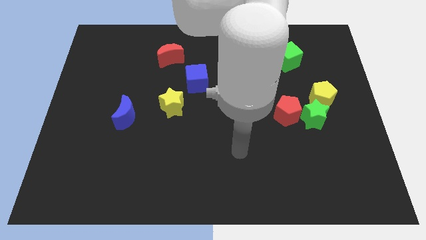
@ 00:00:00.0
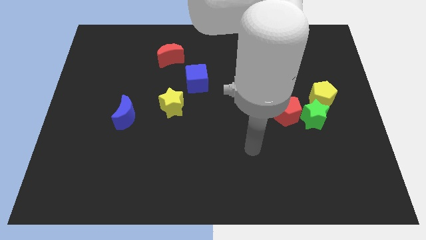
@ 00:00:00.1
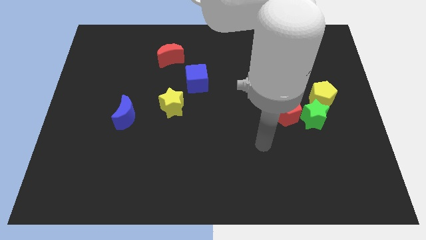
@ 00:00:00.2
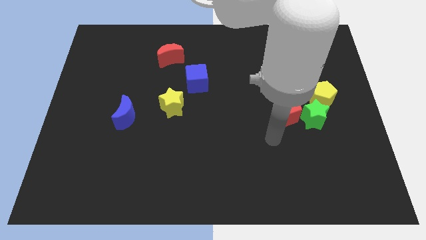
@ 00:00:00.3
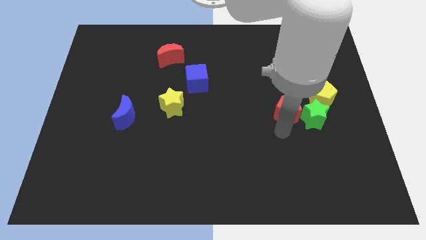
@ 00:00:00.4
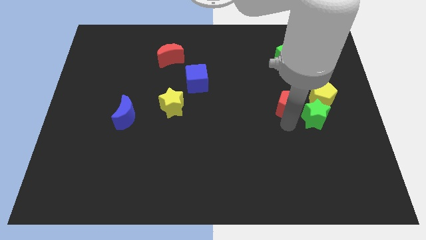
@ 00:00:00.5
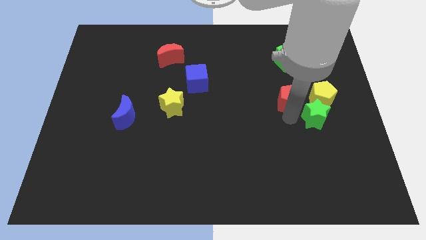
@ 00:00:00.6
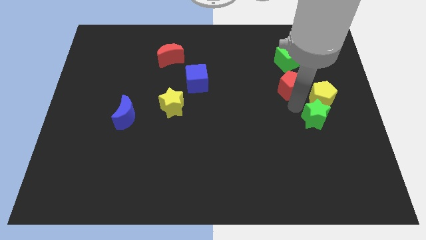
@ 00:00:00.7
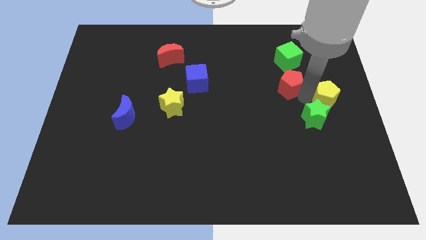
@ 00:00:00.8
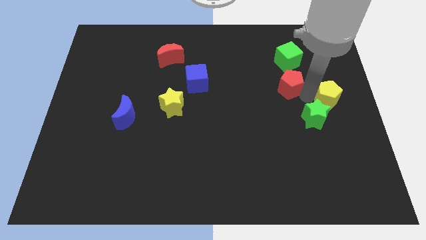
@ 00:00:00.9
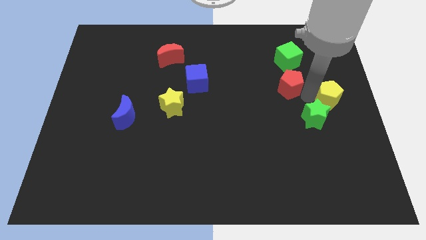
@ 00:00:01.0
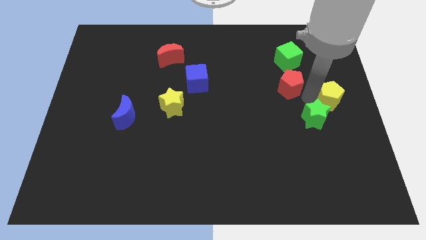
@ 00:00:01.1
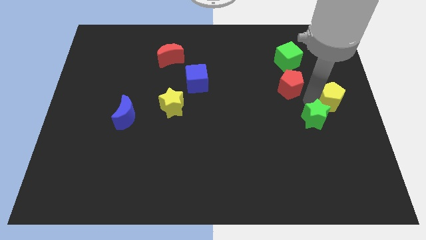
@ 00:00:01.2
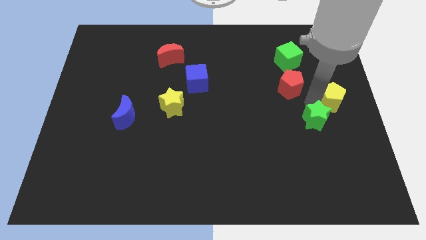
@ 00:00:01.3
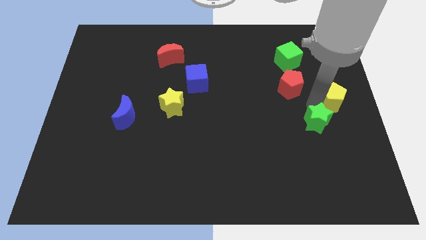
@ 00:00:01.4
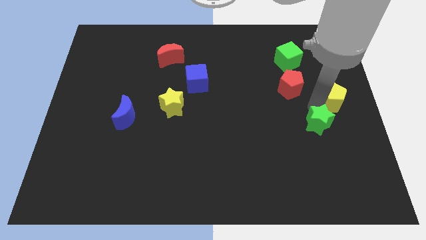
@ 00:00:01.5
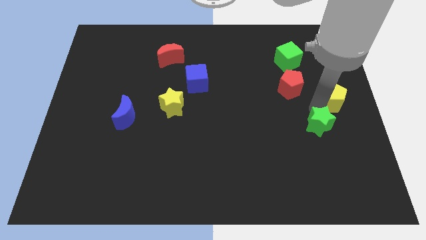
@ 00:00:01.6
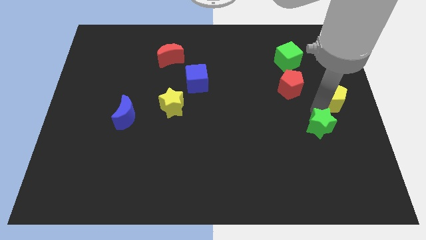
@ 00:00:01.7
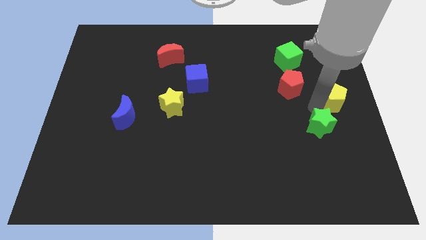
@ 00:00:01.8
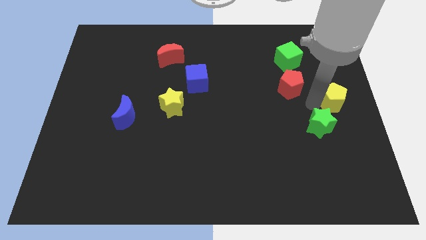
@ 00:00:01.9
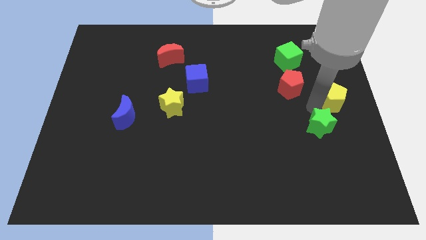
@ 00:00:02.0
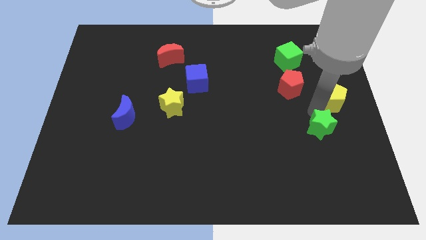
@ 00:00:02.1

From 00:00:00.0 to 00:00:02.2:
separate the green star from the red pentagon and yellow pentagon

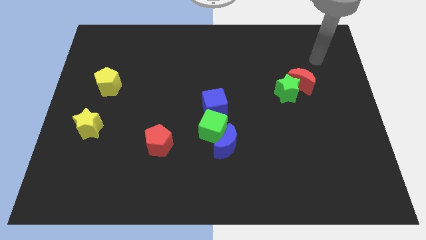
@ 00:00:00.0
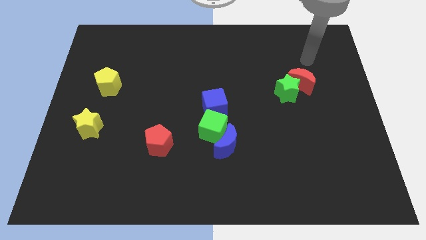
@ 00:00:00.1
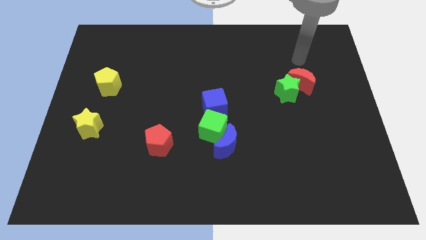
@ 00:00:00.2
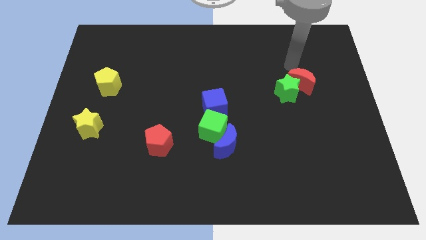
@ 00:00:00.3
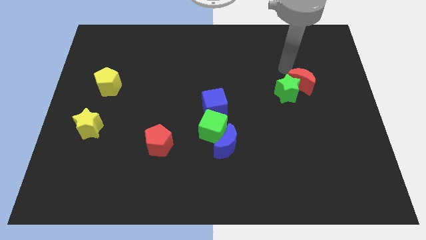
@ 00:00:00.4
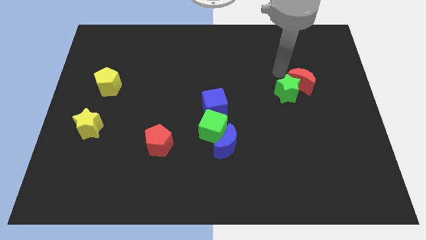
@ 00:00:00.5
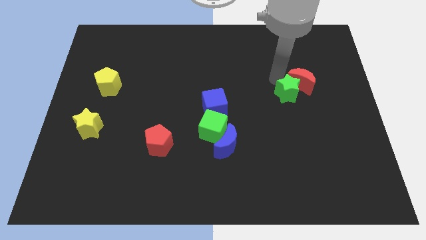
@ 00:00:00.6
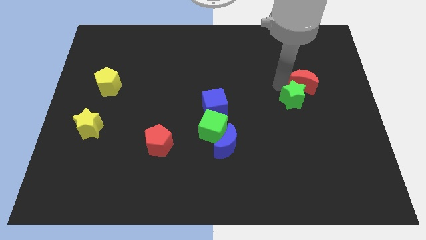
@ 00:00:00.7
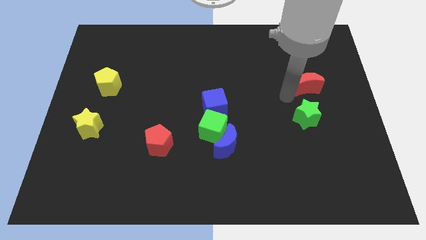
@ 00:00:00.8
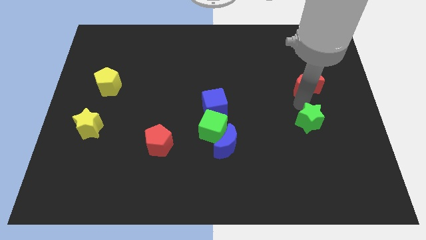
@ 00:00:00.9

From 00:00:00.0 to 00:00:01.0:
move the red moon away from the green star

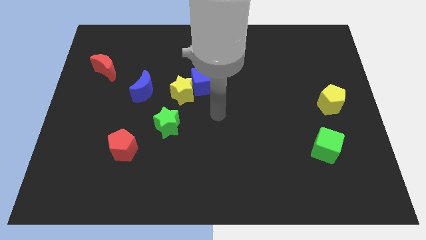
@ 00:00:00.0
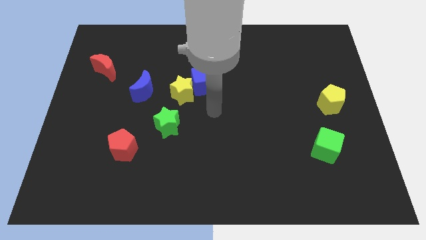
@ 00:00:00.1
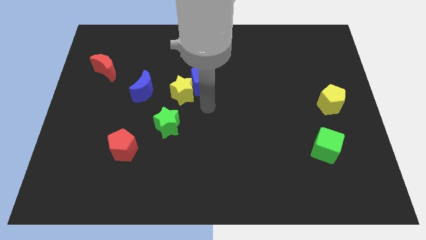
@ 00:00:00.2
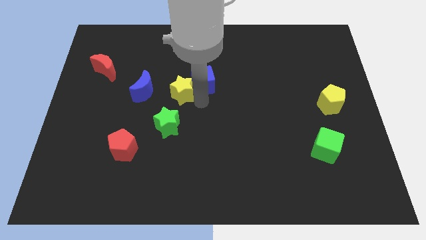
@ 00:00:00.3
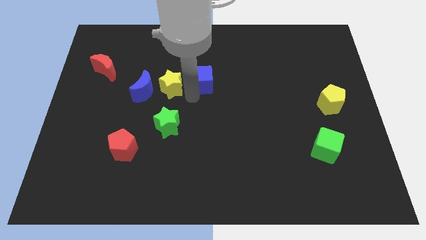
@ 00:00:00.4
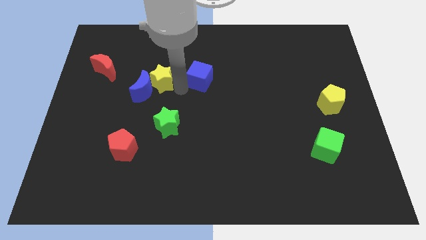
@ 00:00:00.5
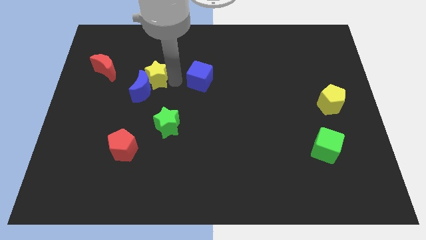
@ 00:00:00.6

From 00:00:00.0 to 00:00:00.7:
separate the blue cube from the yellow star

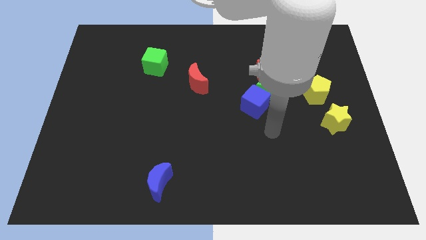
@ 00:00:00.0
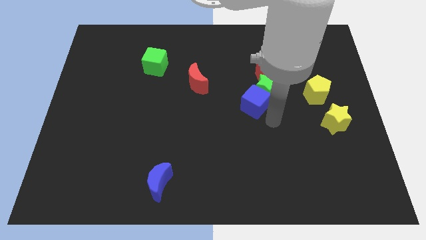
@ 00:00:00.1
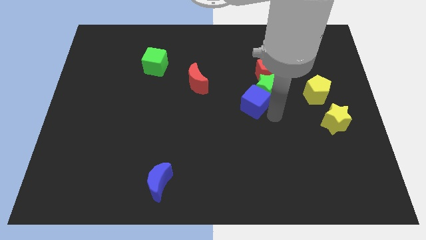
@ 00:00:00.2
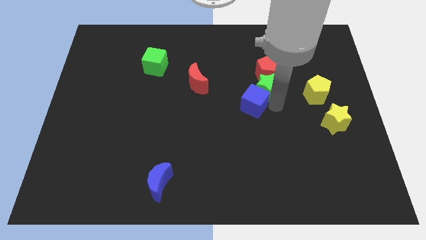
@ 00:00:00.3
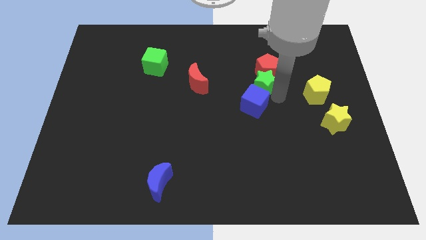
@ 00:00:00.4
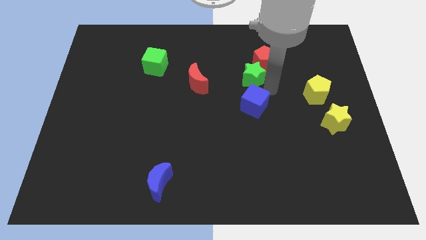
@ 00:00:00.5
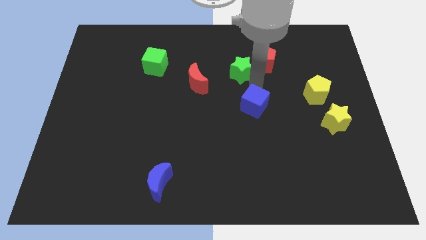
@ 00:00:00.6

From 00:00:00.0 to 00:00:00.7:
separate the blue cube from the green star

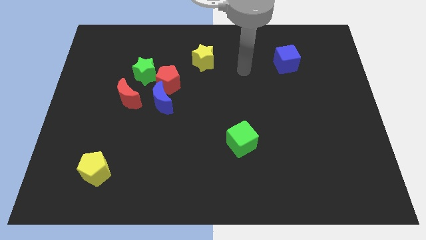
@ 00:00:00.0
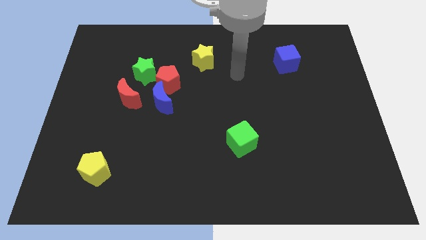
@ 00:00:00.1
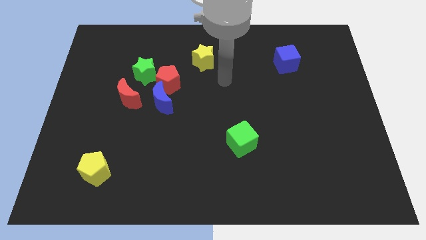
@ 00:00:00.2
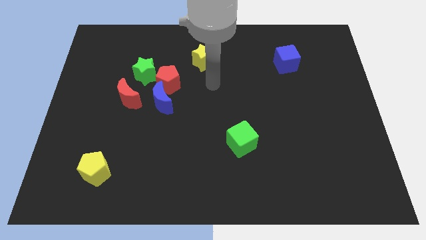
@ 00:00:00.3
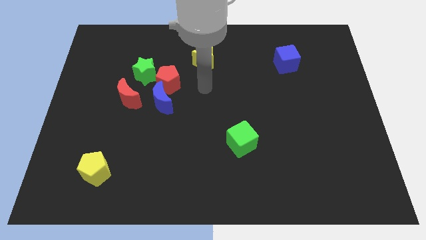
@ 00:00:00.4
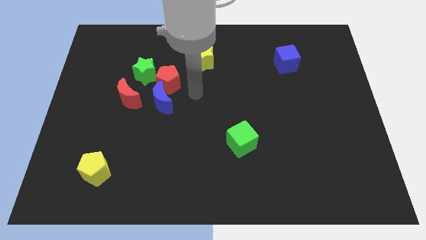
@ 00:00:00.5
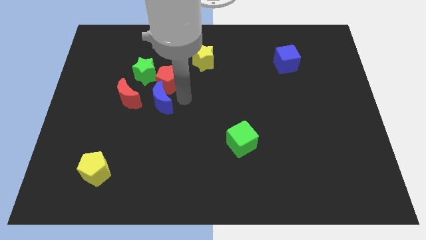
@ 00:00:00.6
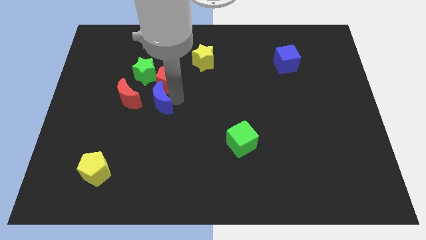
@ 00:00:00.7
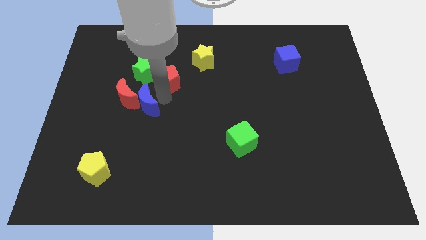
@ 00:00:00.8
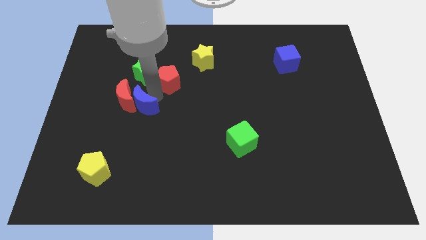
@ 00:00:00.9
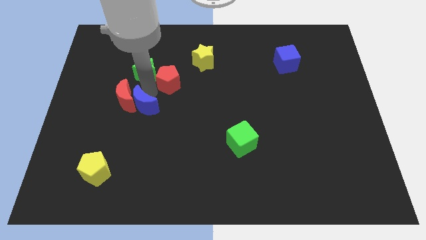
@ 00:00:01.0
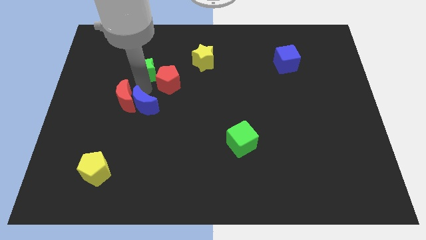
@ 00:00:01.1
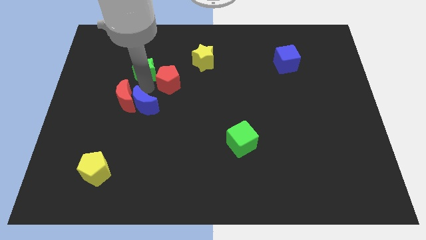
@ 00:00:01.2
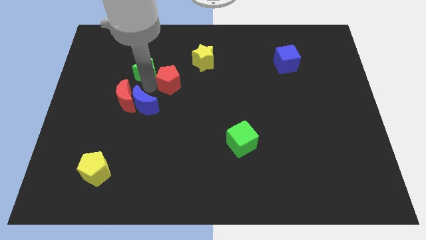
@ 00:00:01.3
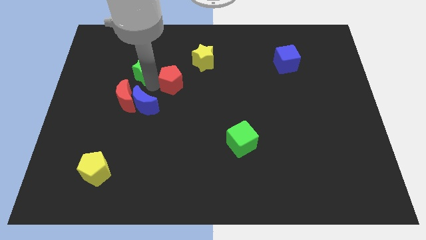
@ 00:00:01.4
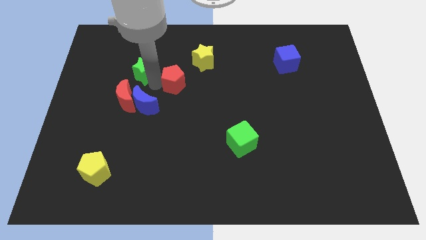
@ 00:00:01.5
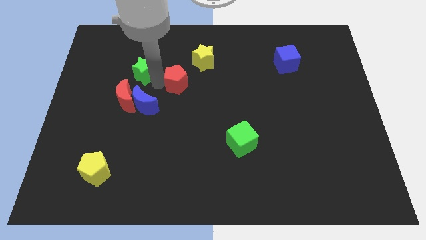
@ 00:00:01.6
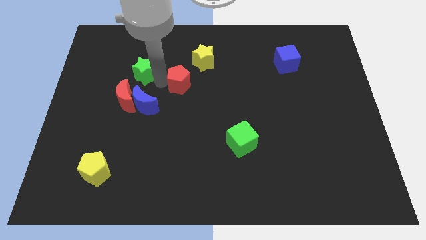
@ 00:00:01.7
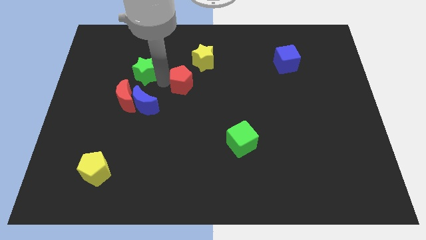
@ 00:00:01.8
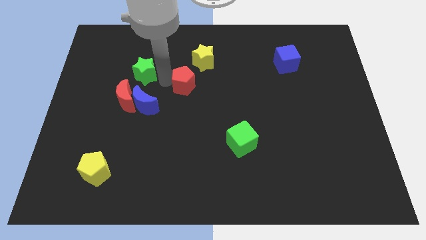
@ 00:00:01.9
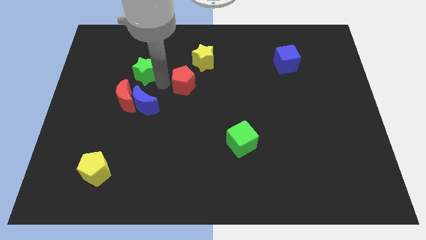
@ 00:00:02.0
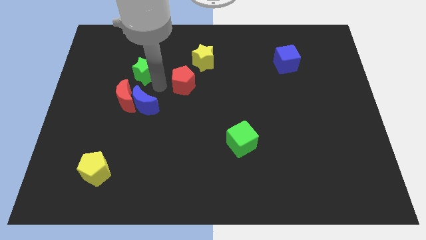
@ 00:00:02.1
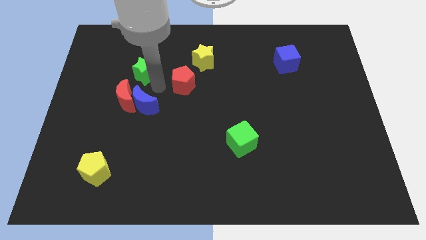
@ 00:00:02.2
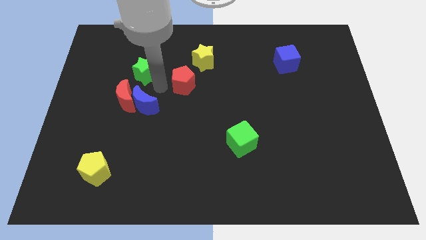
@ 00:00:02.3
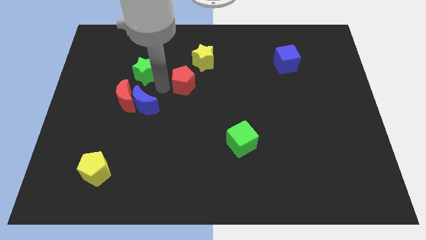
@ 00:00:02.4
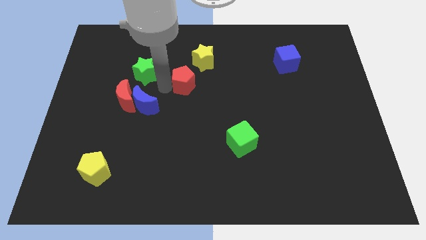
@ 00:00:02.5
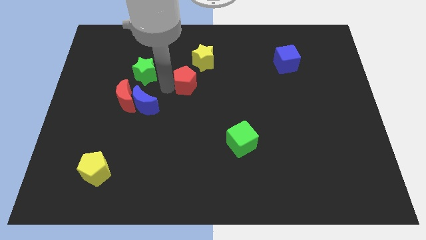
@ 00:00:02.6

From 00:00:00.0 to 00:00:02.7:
move the red pentagon away from the blue moon and green star

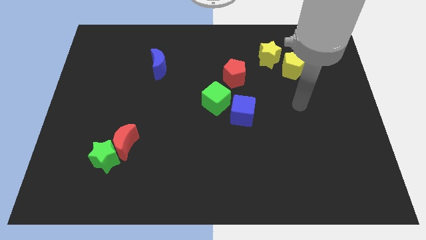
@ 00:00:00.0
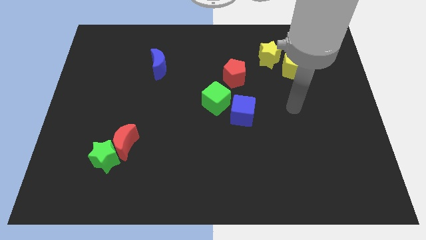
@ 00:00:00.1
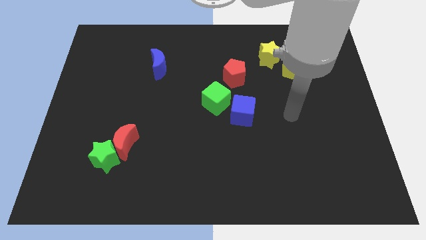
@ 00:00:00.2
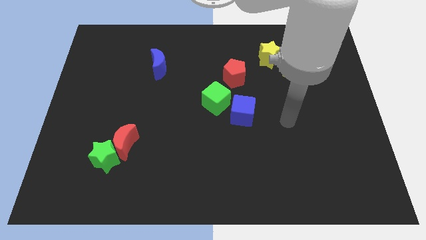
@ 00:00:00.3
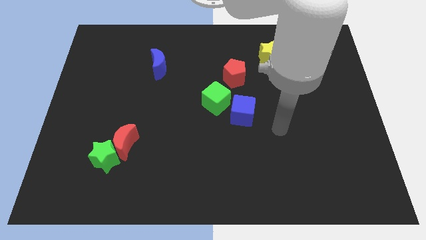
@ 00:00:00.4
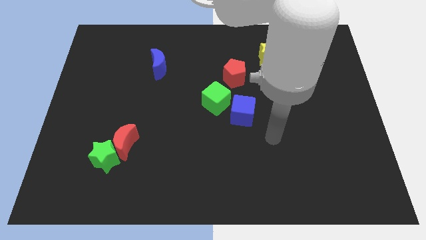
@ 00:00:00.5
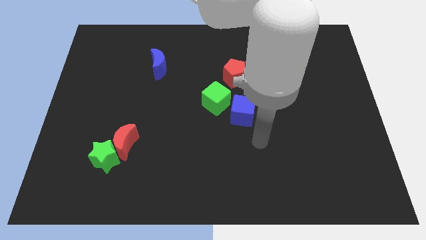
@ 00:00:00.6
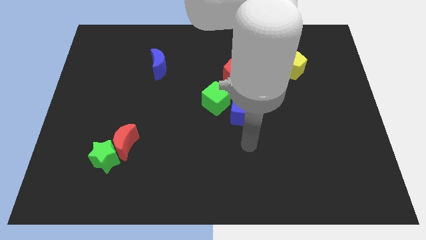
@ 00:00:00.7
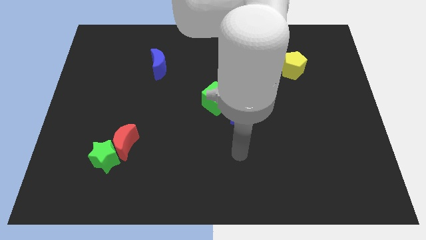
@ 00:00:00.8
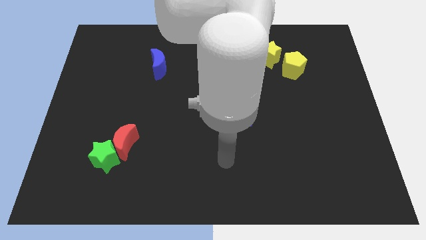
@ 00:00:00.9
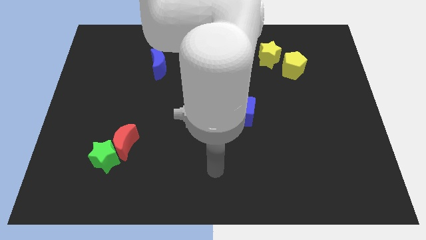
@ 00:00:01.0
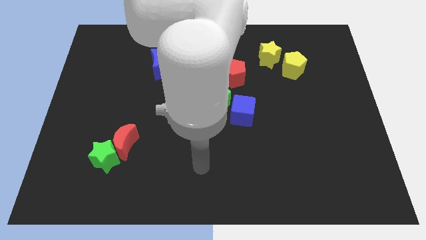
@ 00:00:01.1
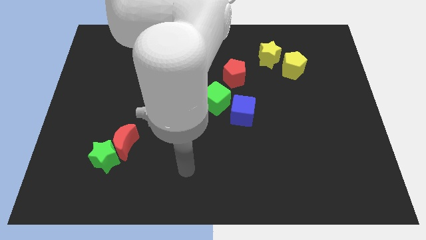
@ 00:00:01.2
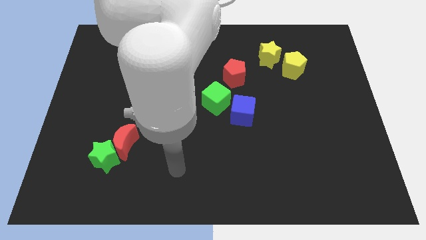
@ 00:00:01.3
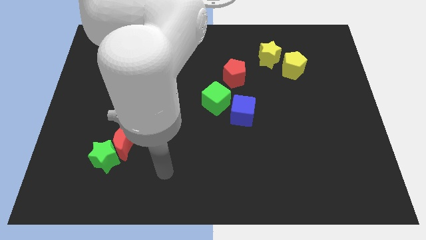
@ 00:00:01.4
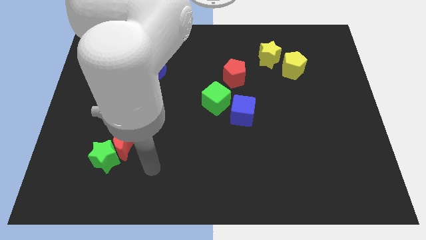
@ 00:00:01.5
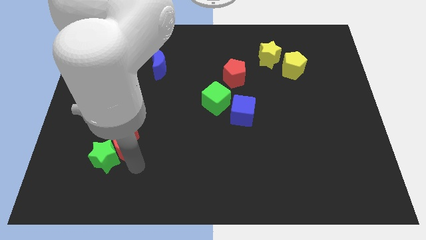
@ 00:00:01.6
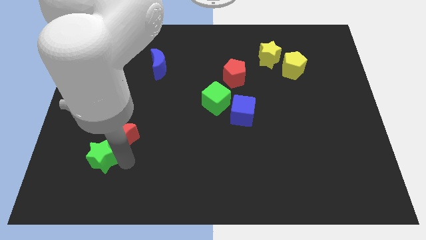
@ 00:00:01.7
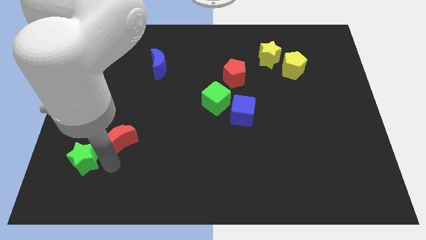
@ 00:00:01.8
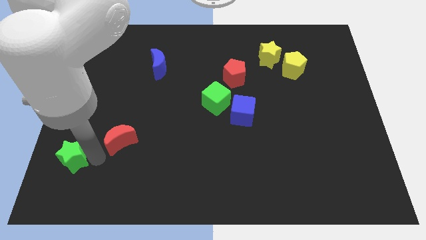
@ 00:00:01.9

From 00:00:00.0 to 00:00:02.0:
separate the red moon from the green star
